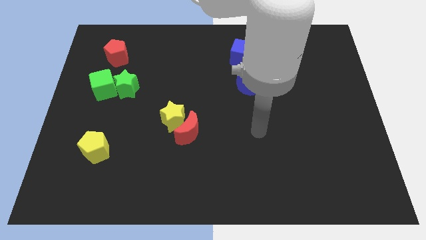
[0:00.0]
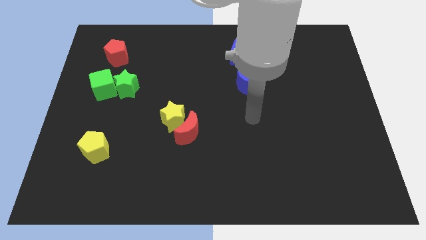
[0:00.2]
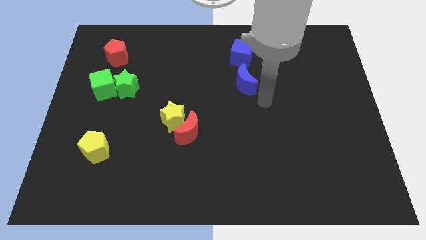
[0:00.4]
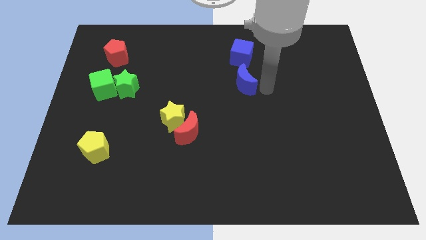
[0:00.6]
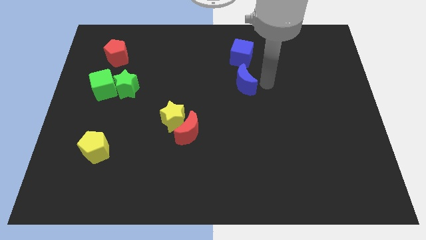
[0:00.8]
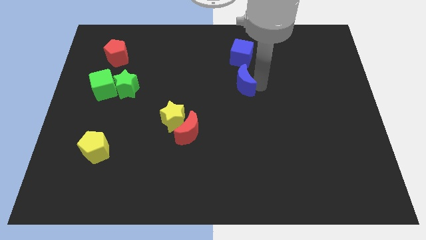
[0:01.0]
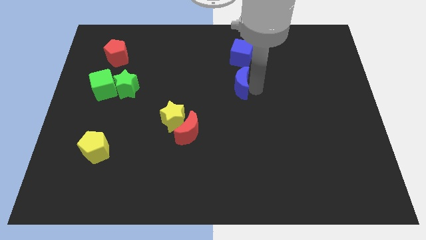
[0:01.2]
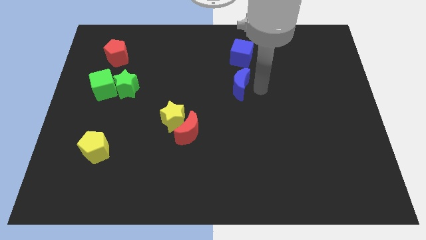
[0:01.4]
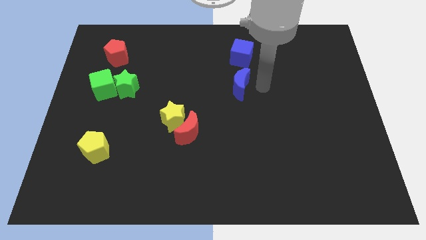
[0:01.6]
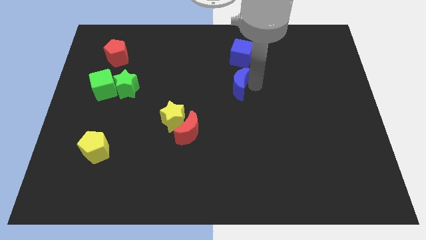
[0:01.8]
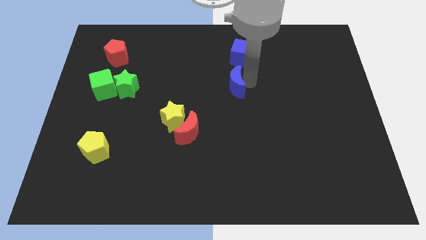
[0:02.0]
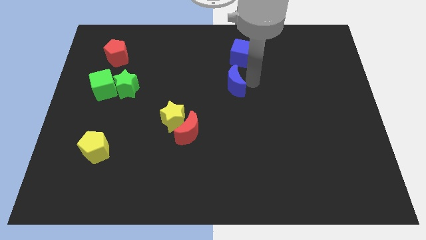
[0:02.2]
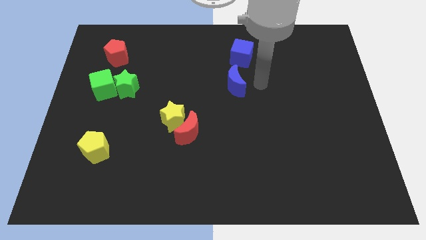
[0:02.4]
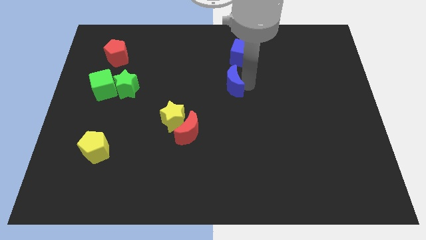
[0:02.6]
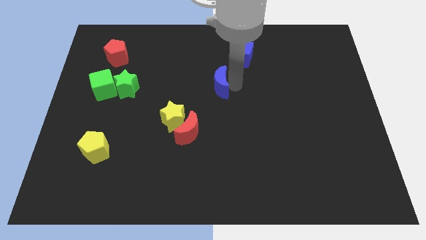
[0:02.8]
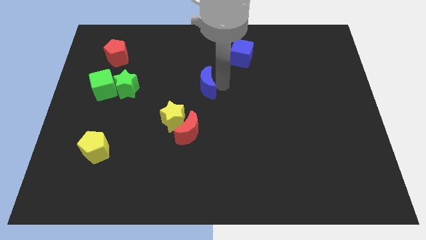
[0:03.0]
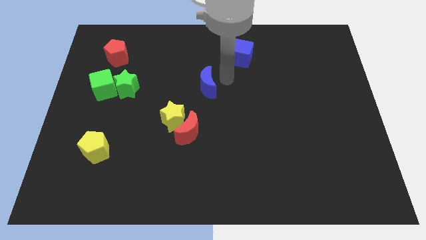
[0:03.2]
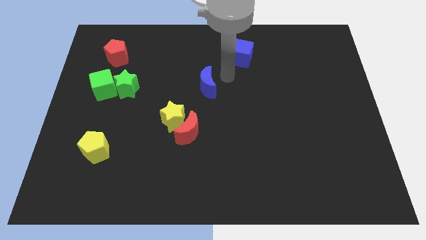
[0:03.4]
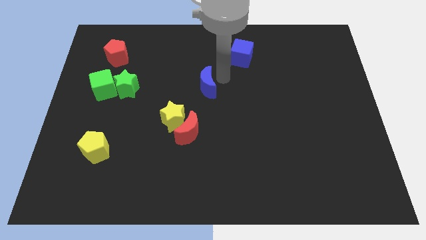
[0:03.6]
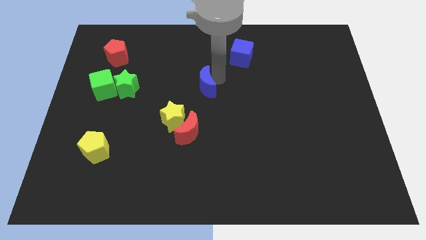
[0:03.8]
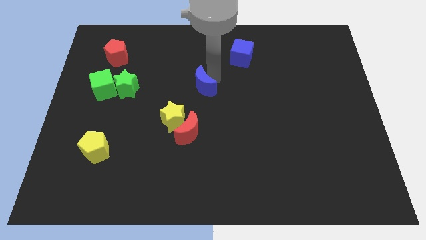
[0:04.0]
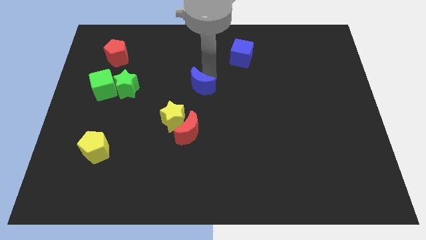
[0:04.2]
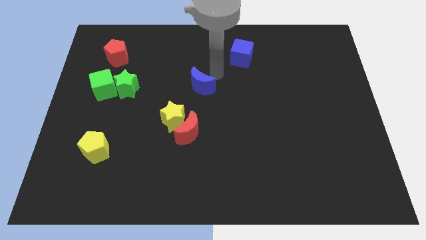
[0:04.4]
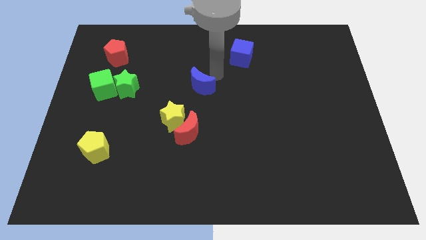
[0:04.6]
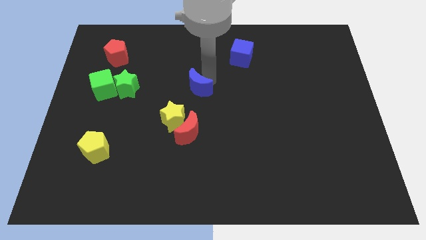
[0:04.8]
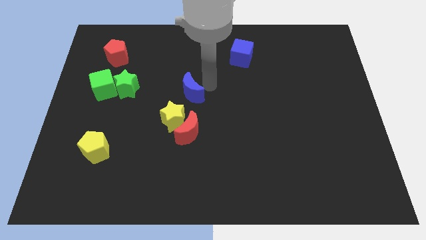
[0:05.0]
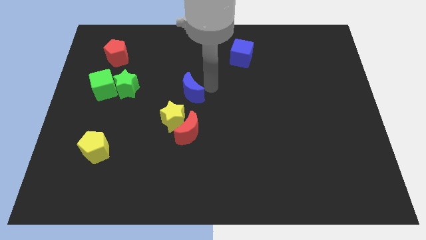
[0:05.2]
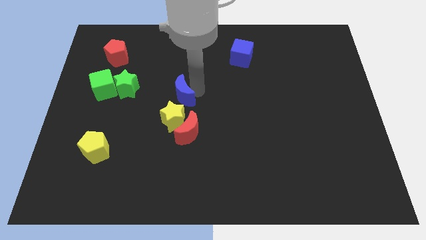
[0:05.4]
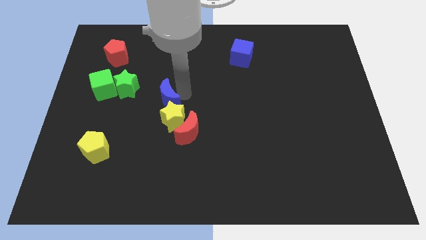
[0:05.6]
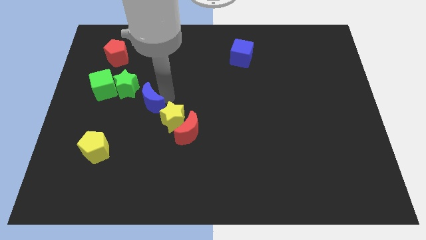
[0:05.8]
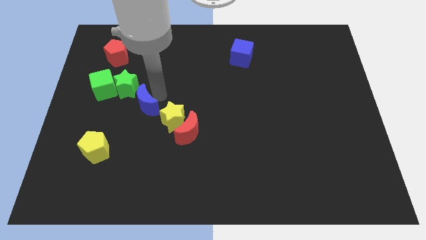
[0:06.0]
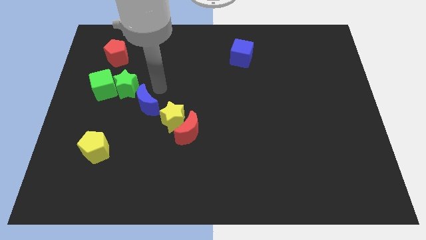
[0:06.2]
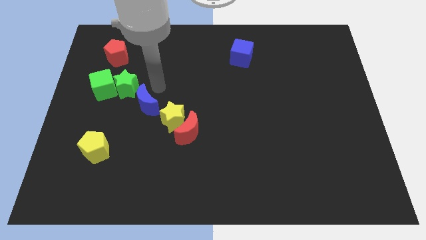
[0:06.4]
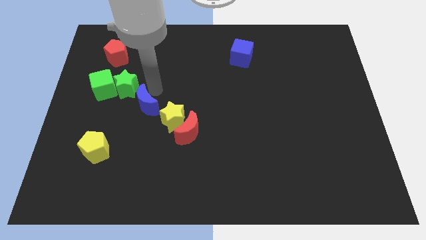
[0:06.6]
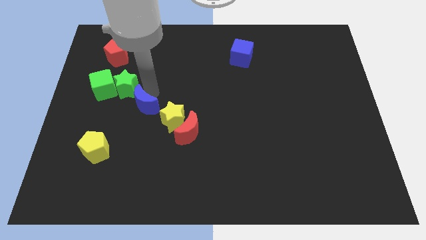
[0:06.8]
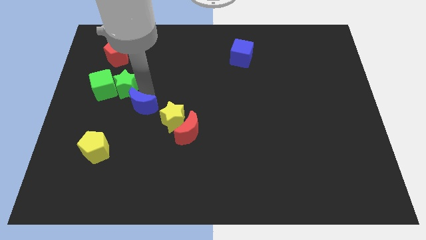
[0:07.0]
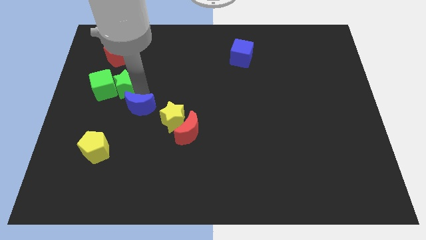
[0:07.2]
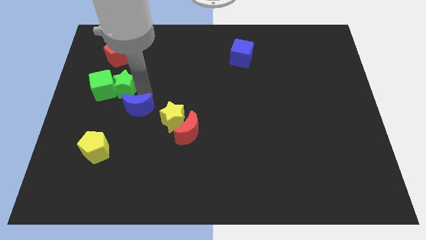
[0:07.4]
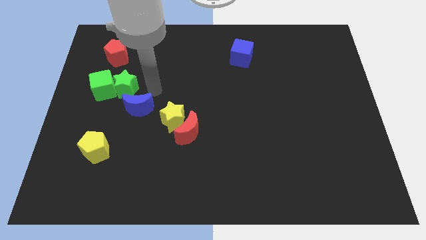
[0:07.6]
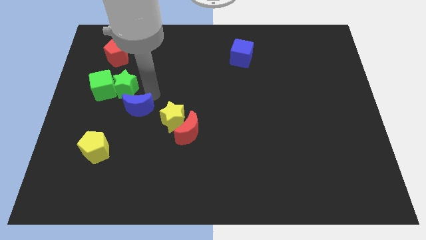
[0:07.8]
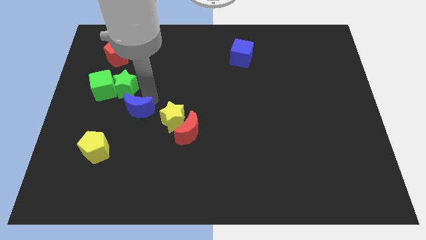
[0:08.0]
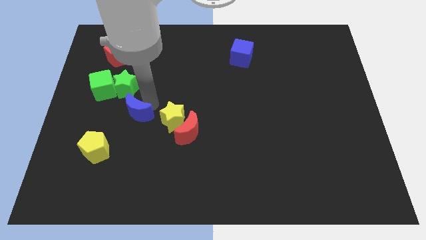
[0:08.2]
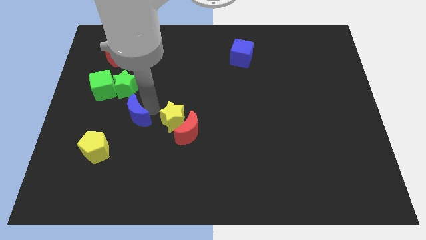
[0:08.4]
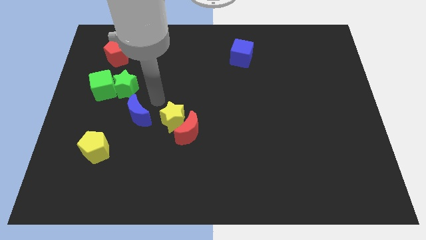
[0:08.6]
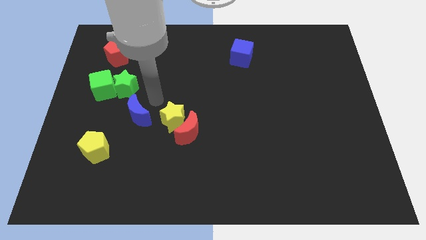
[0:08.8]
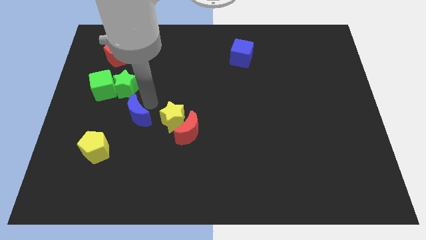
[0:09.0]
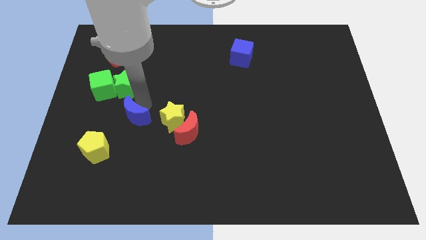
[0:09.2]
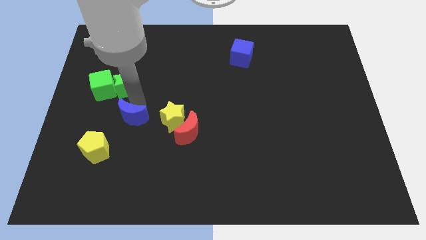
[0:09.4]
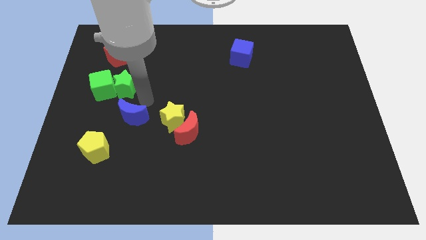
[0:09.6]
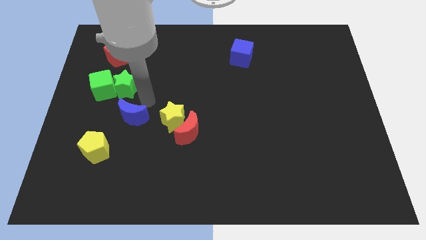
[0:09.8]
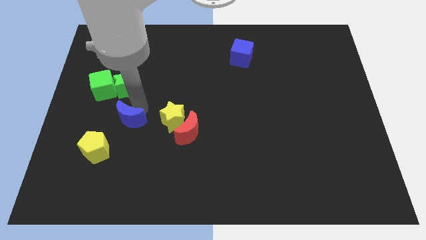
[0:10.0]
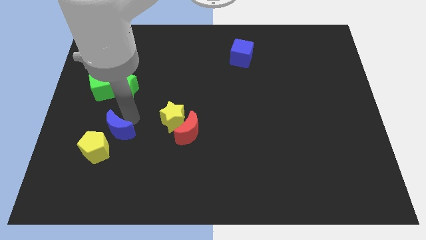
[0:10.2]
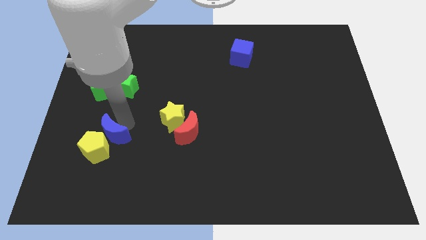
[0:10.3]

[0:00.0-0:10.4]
move the blue moon towards the yellow pentagon

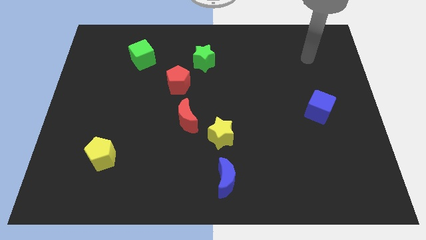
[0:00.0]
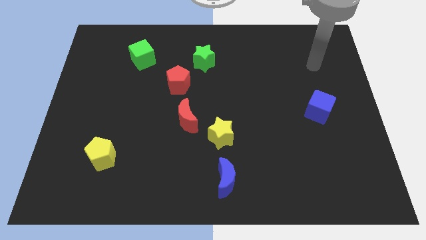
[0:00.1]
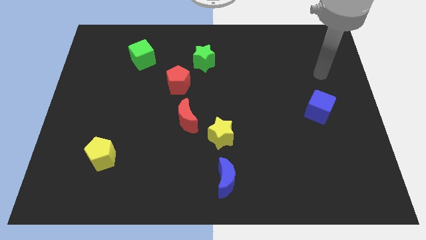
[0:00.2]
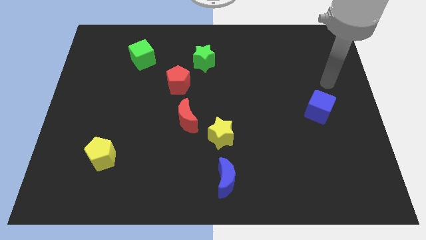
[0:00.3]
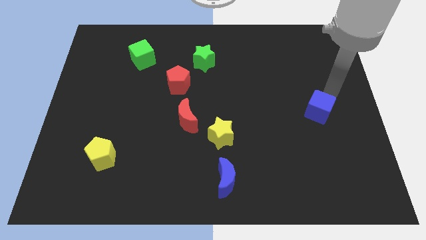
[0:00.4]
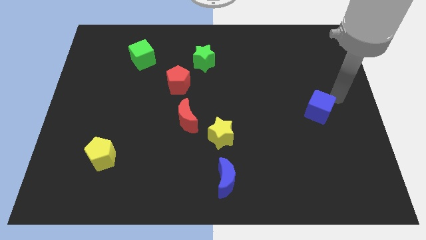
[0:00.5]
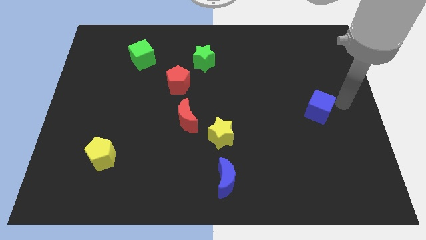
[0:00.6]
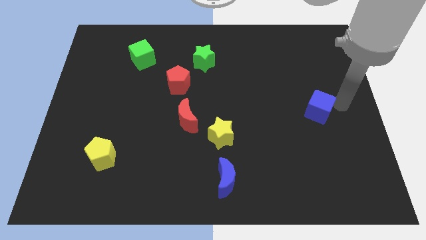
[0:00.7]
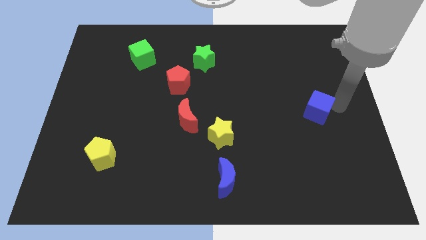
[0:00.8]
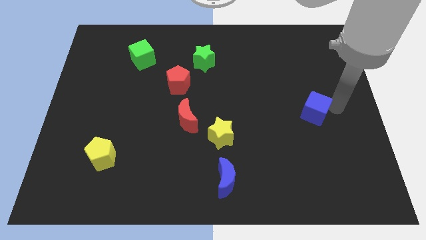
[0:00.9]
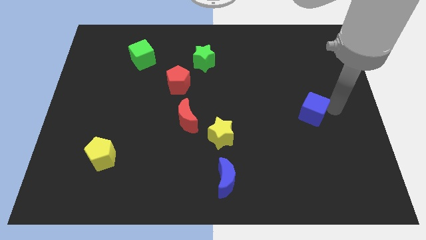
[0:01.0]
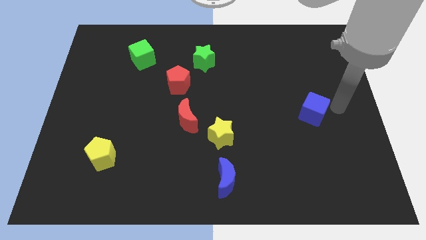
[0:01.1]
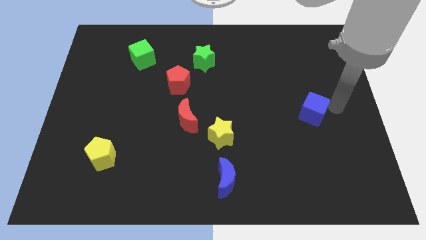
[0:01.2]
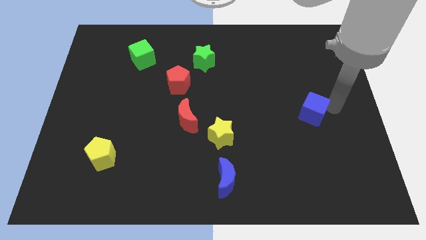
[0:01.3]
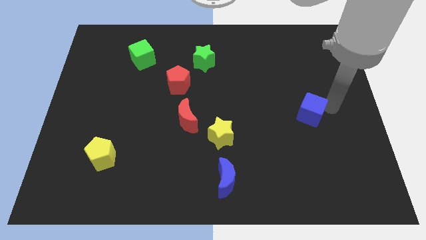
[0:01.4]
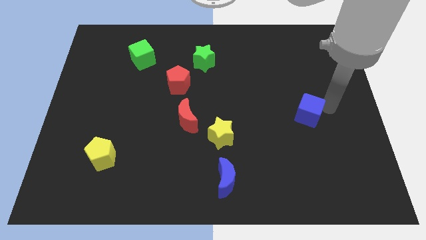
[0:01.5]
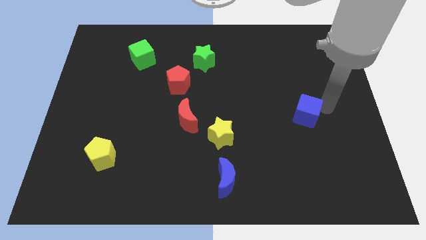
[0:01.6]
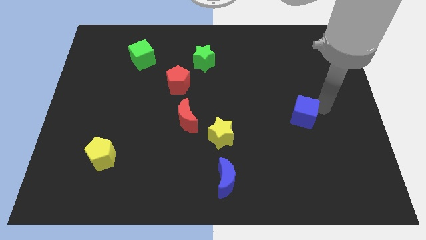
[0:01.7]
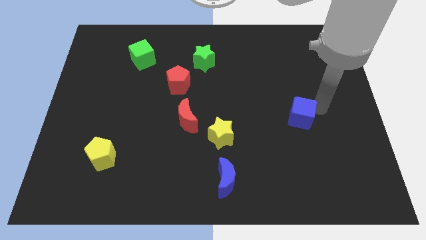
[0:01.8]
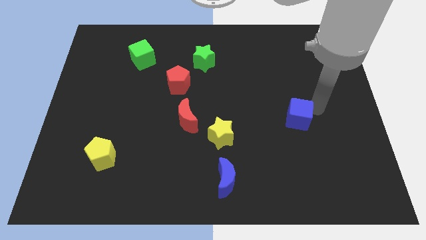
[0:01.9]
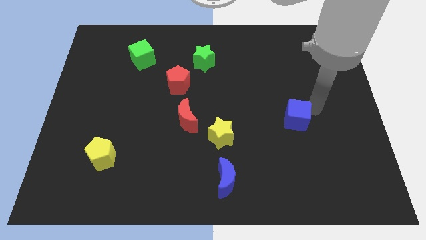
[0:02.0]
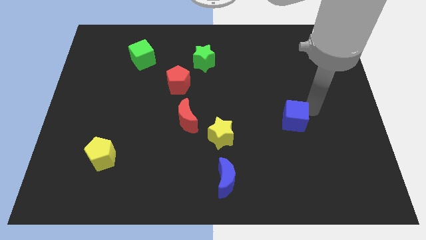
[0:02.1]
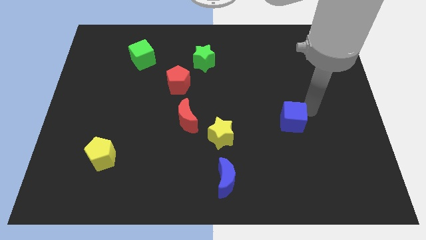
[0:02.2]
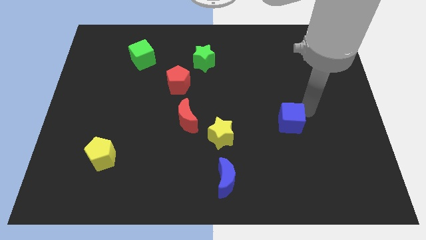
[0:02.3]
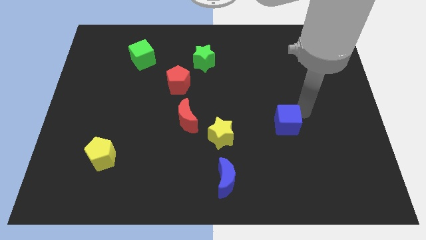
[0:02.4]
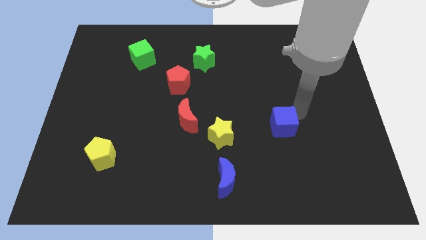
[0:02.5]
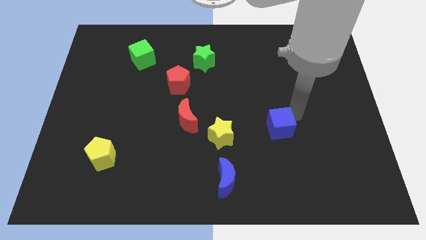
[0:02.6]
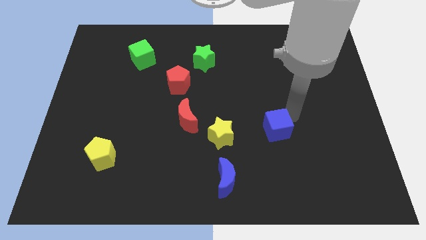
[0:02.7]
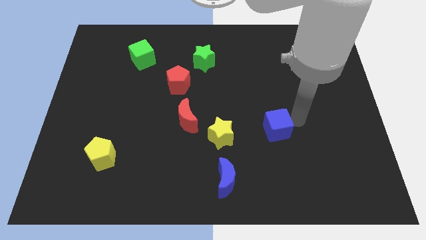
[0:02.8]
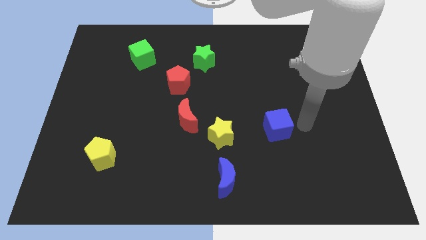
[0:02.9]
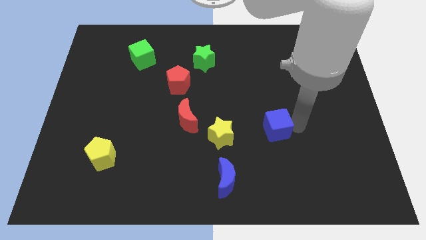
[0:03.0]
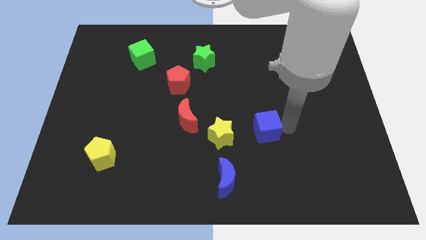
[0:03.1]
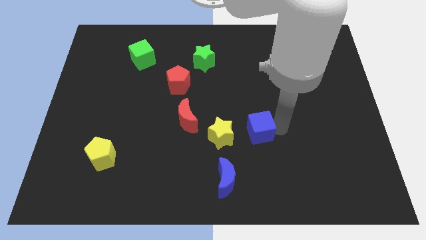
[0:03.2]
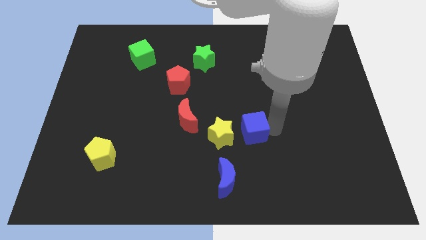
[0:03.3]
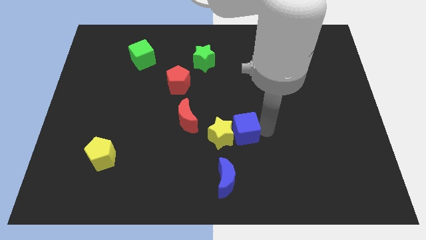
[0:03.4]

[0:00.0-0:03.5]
push the blue cube towards the yellow star
